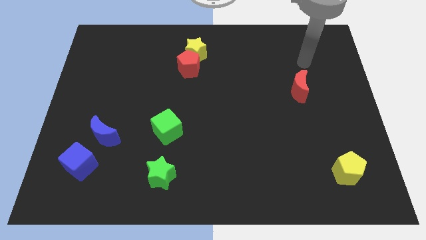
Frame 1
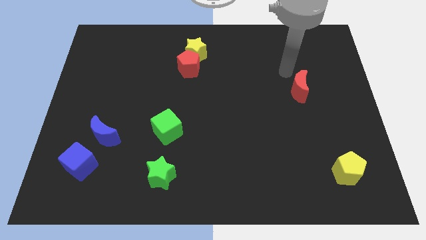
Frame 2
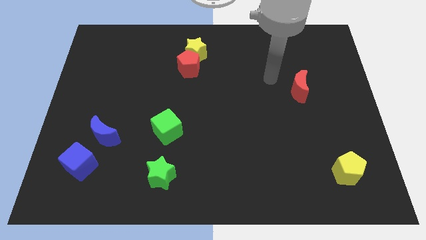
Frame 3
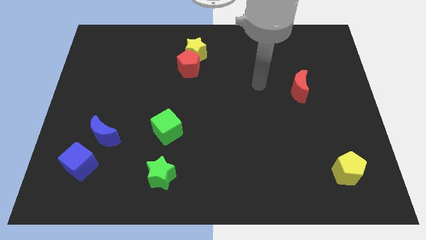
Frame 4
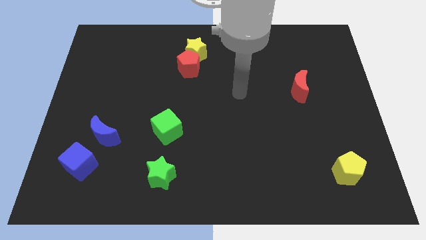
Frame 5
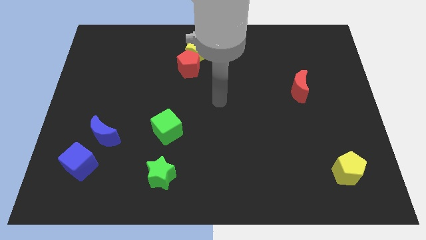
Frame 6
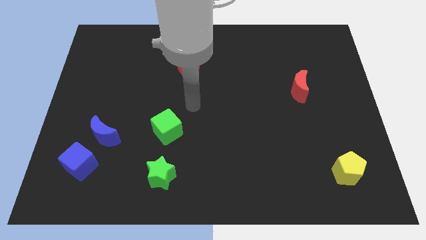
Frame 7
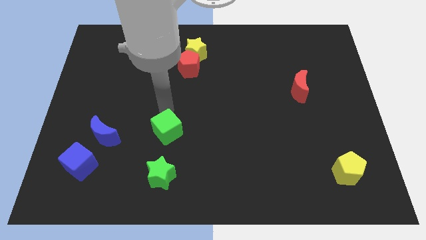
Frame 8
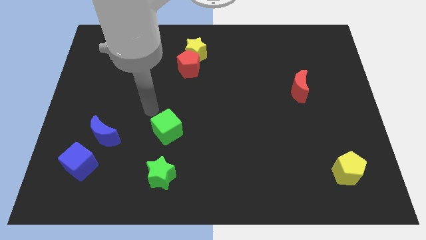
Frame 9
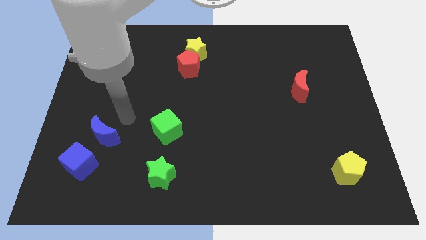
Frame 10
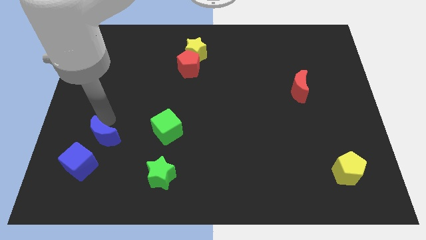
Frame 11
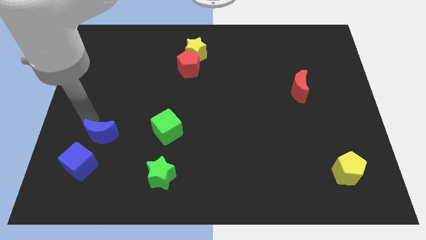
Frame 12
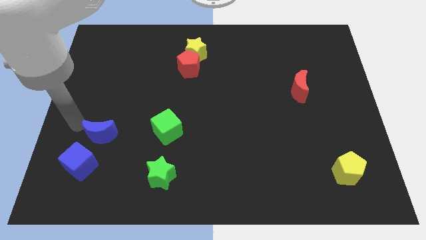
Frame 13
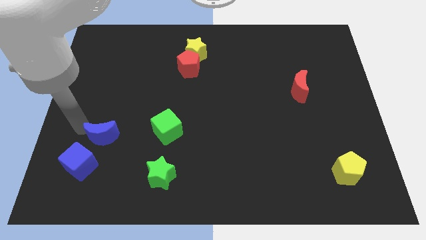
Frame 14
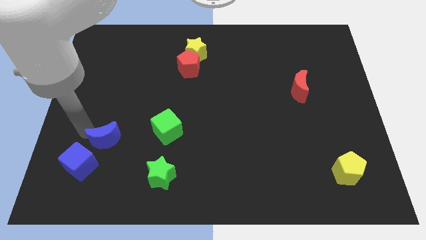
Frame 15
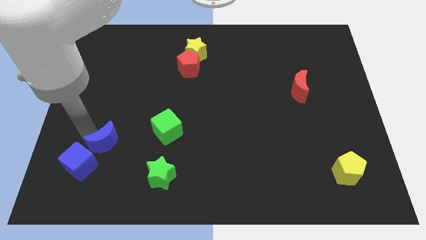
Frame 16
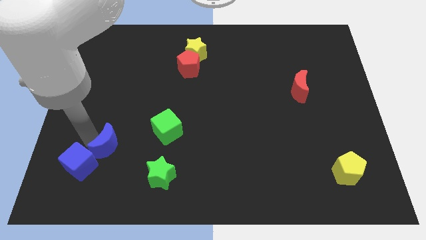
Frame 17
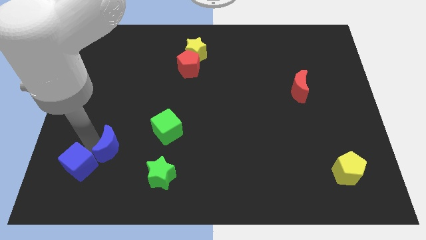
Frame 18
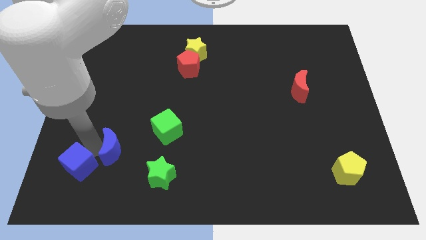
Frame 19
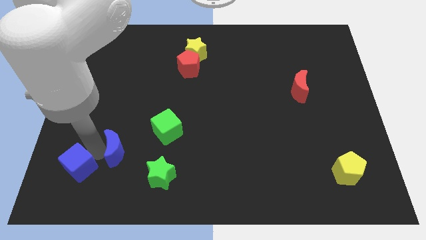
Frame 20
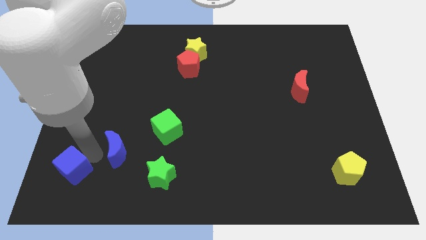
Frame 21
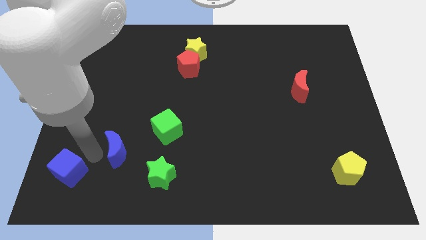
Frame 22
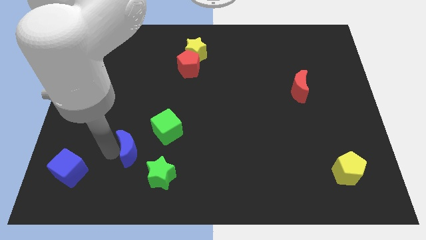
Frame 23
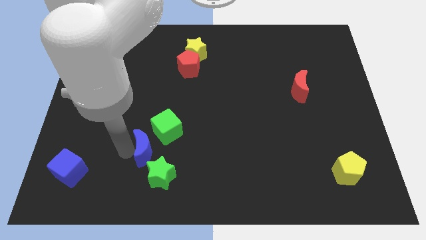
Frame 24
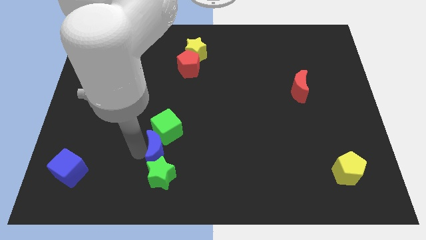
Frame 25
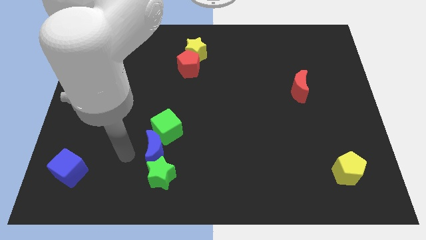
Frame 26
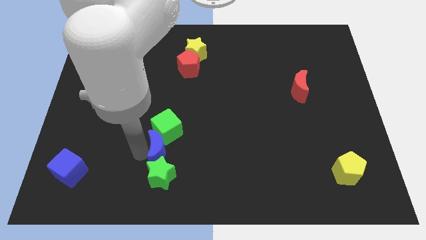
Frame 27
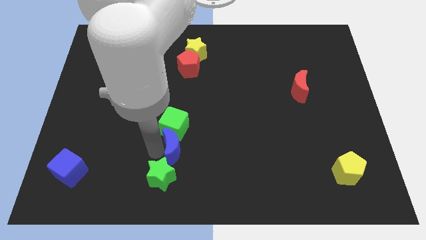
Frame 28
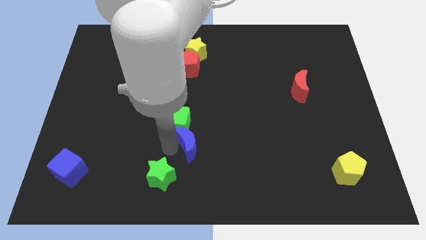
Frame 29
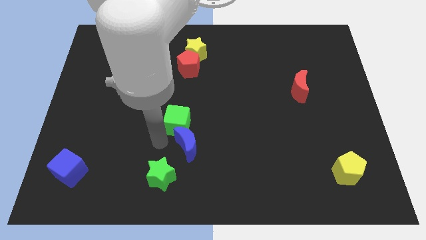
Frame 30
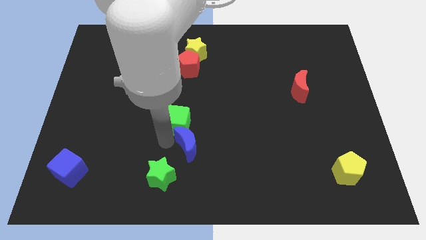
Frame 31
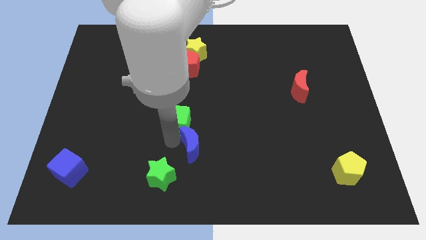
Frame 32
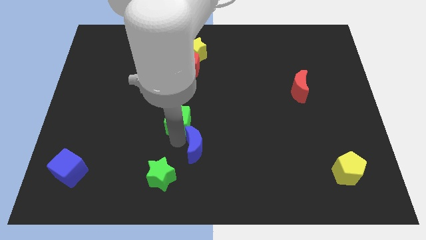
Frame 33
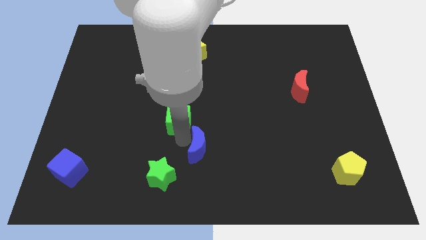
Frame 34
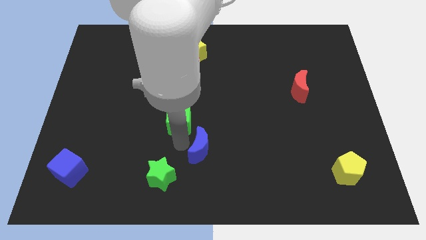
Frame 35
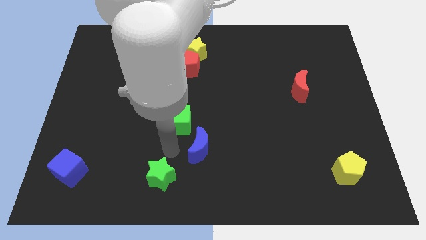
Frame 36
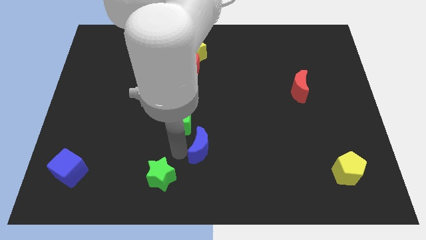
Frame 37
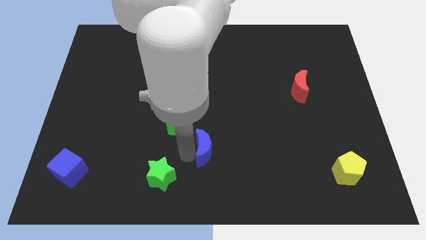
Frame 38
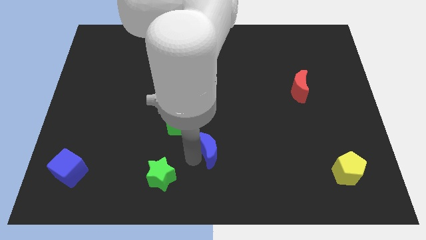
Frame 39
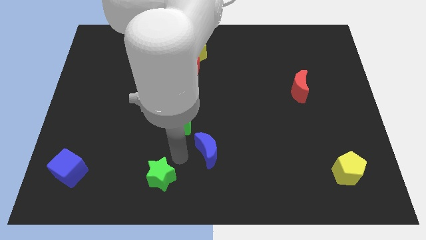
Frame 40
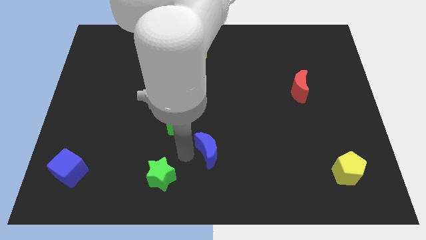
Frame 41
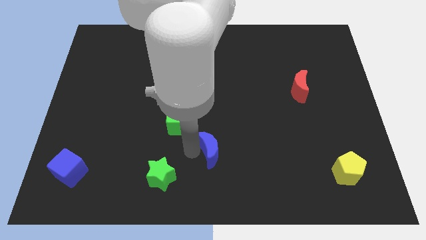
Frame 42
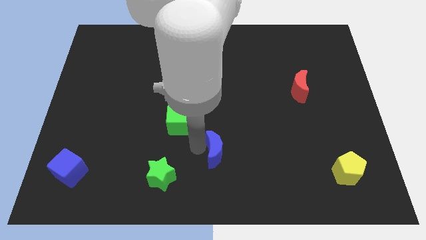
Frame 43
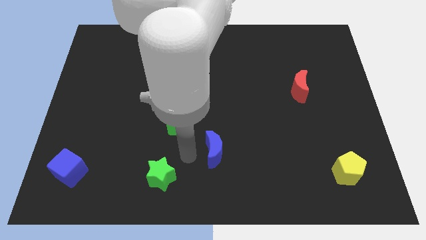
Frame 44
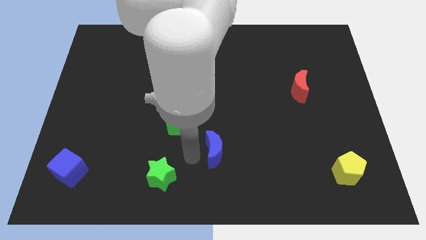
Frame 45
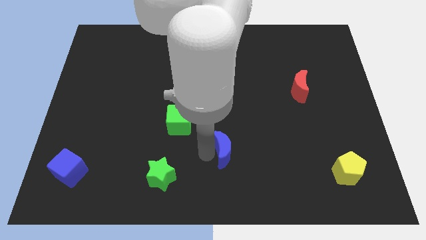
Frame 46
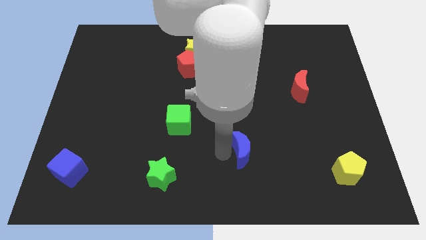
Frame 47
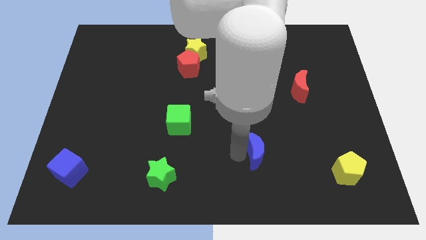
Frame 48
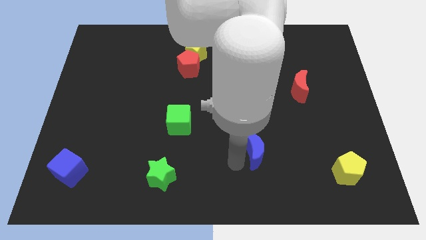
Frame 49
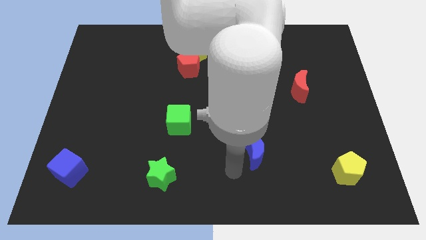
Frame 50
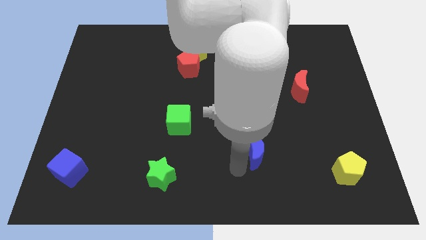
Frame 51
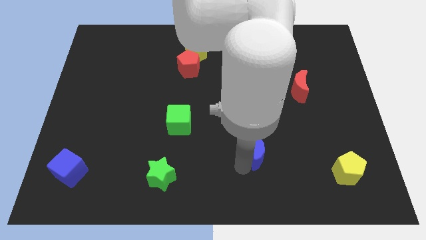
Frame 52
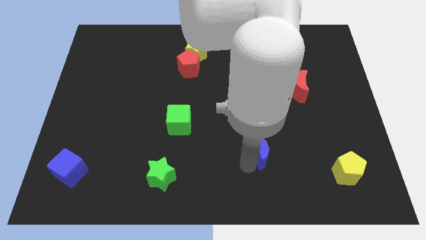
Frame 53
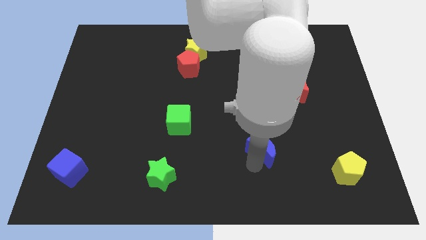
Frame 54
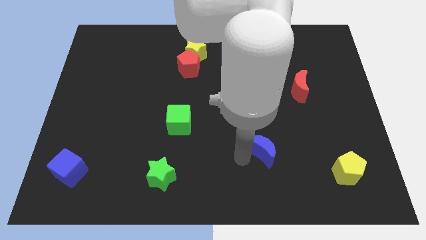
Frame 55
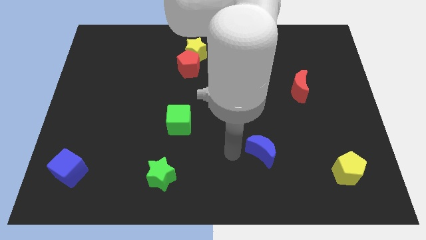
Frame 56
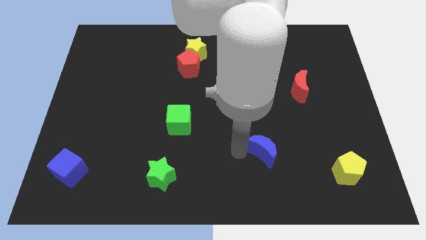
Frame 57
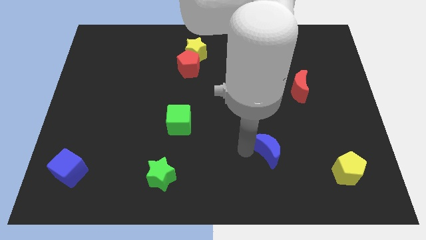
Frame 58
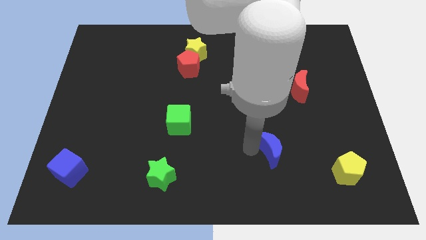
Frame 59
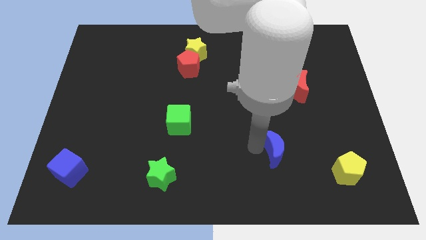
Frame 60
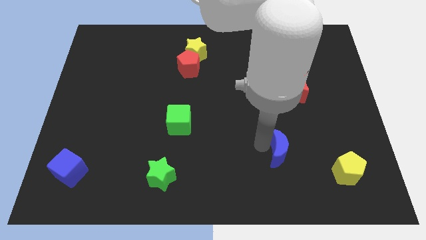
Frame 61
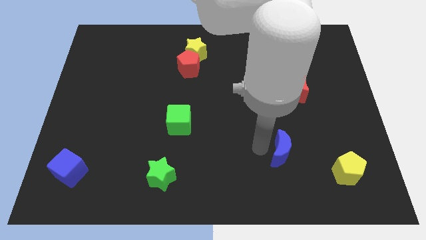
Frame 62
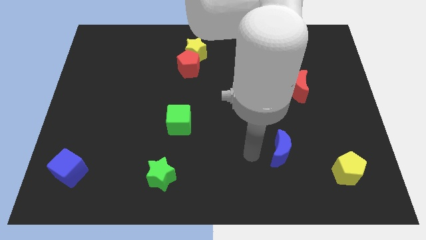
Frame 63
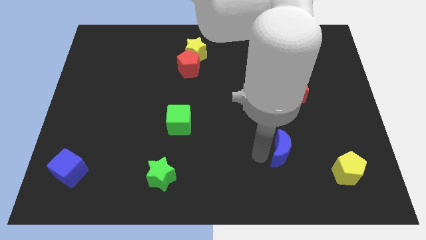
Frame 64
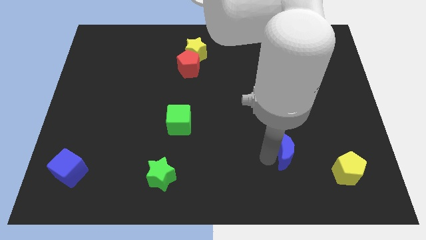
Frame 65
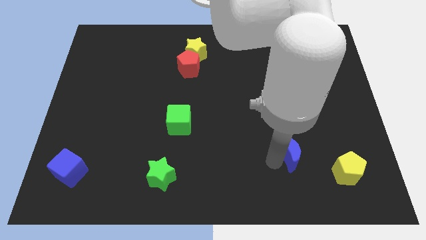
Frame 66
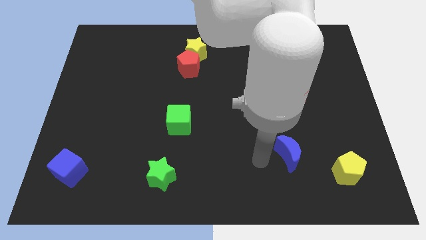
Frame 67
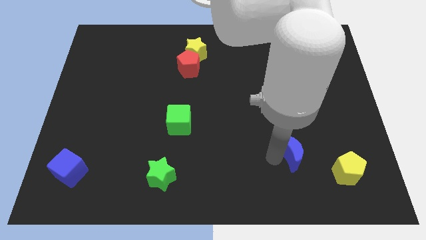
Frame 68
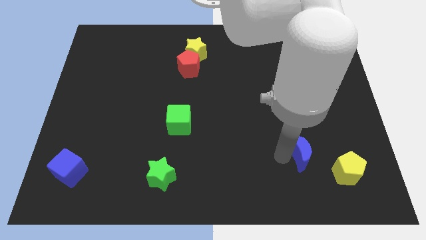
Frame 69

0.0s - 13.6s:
slide the blue moon diagonally up and to the left of the yellow pentagon
